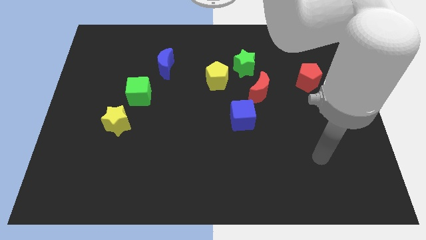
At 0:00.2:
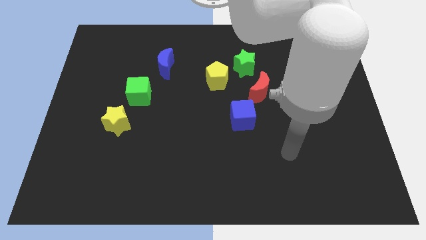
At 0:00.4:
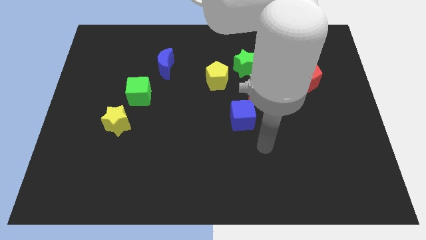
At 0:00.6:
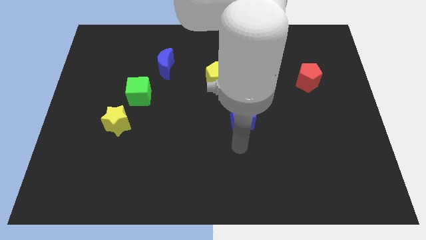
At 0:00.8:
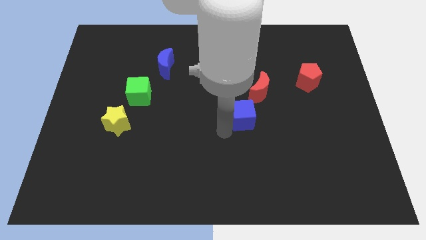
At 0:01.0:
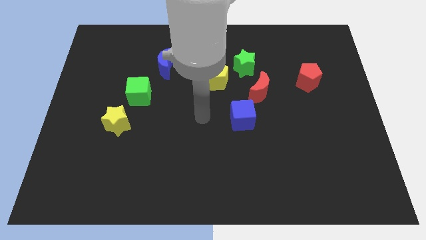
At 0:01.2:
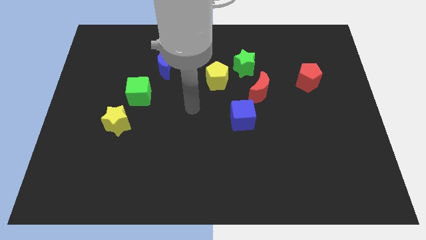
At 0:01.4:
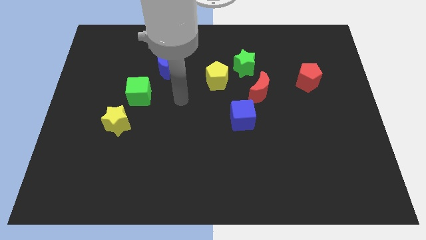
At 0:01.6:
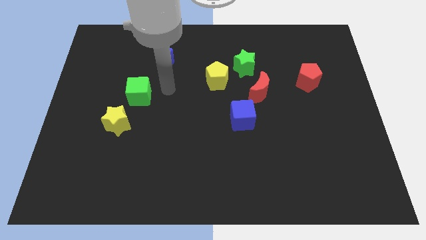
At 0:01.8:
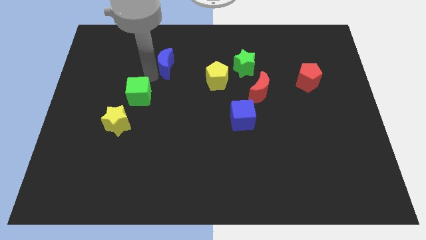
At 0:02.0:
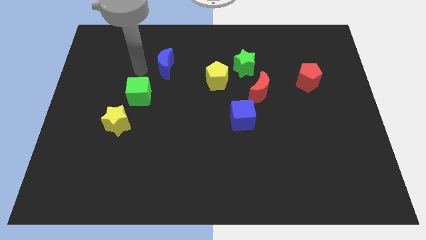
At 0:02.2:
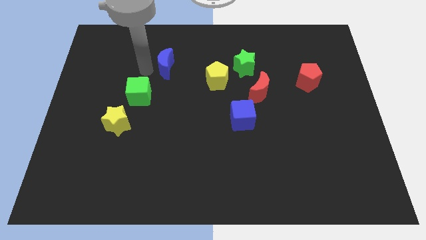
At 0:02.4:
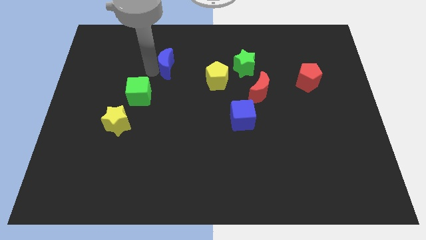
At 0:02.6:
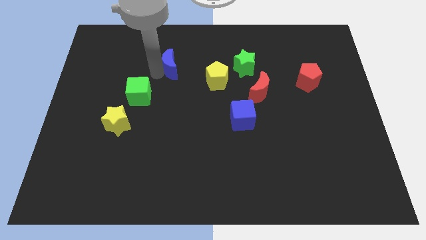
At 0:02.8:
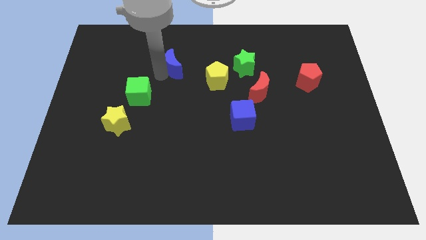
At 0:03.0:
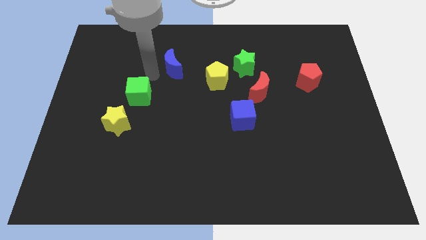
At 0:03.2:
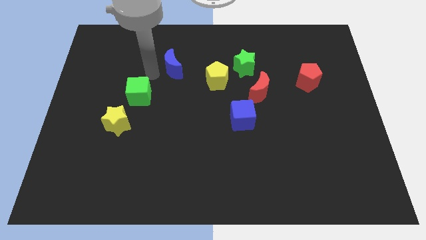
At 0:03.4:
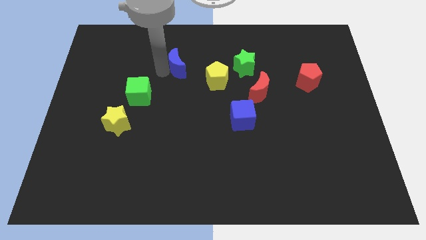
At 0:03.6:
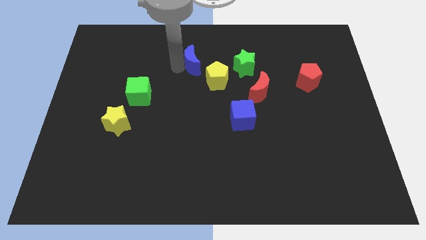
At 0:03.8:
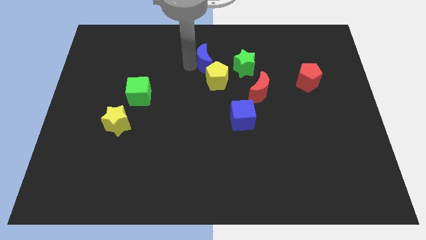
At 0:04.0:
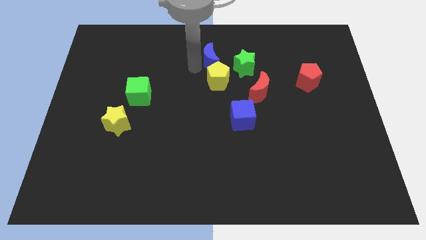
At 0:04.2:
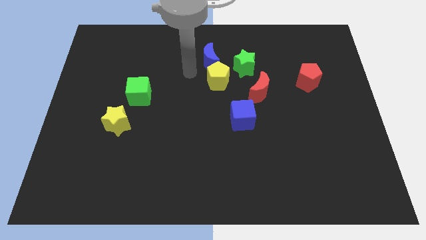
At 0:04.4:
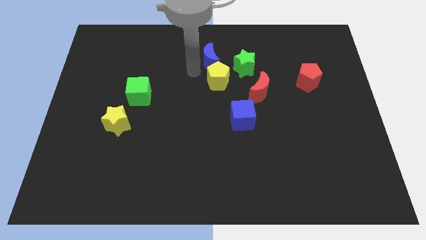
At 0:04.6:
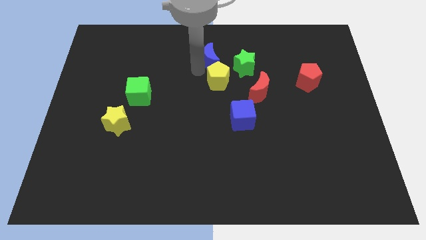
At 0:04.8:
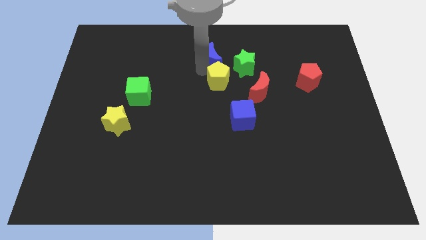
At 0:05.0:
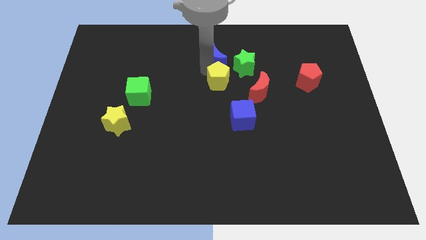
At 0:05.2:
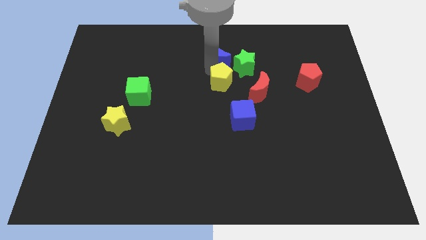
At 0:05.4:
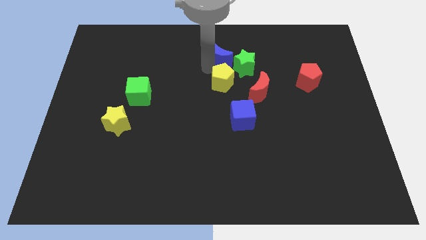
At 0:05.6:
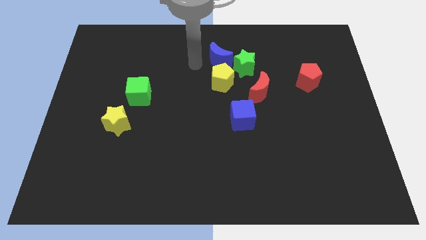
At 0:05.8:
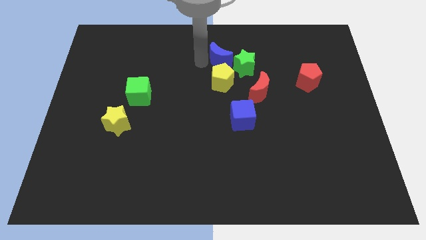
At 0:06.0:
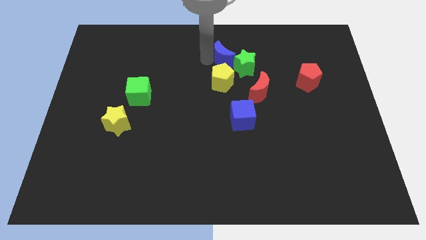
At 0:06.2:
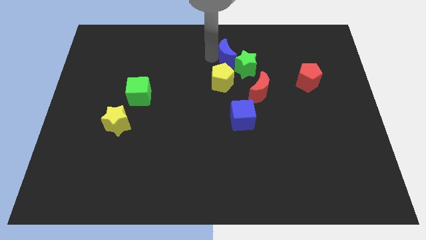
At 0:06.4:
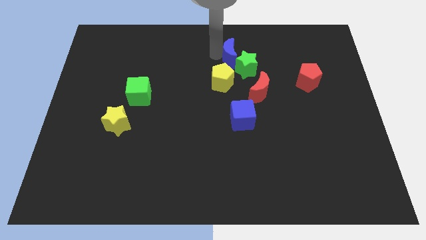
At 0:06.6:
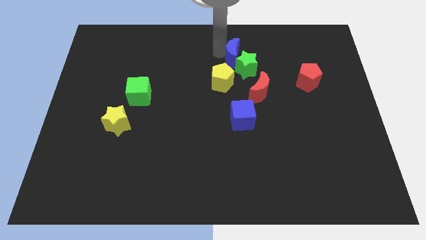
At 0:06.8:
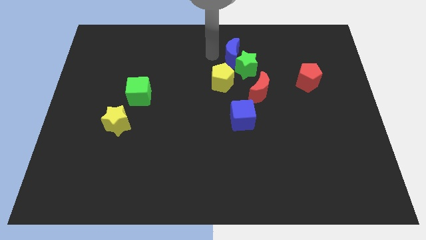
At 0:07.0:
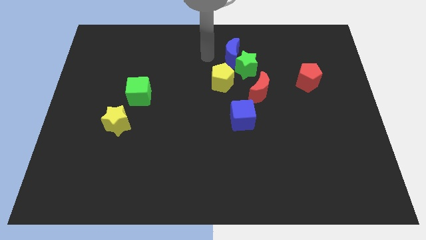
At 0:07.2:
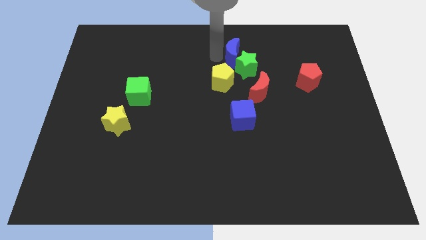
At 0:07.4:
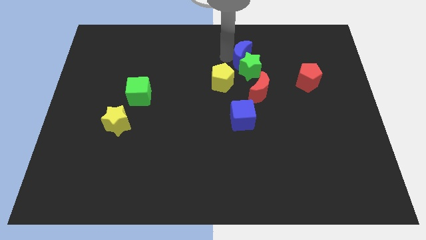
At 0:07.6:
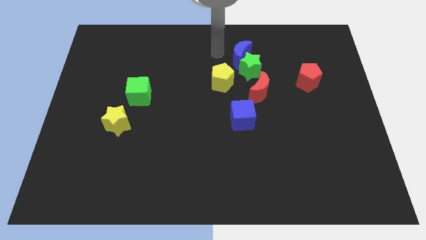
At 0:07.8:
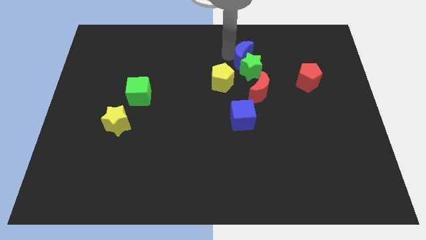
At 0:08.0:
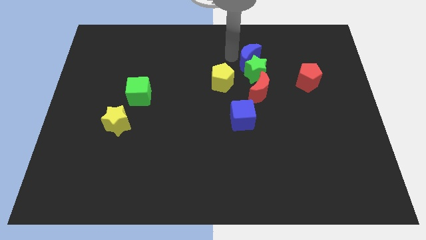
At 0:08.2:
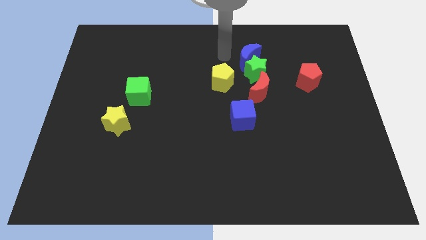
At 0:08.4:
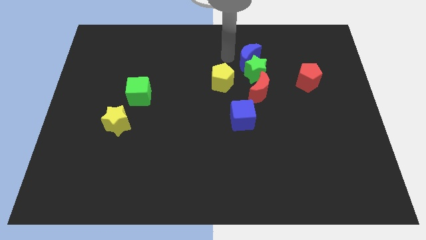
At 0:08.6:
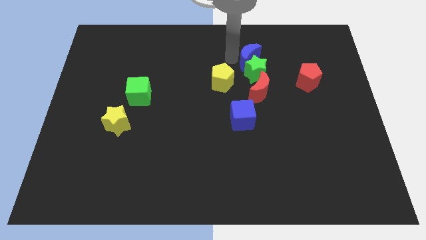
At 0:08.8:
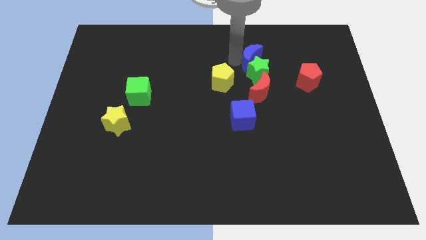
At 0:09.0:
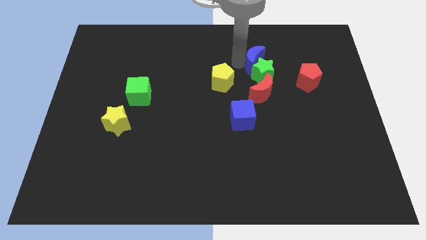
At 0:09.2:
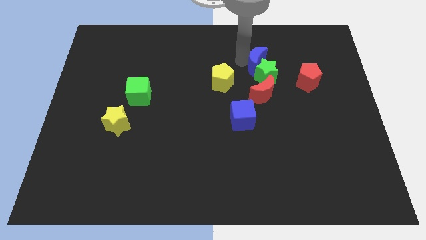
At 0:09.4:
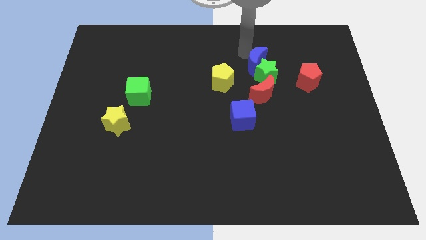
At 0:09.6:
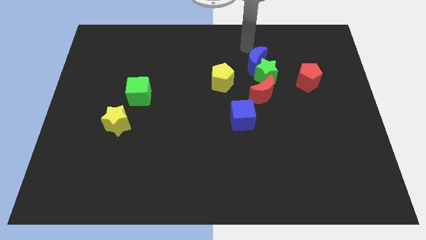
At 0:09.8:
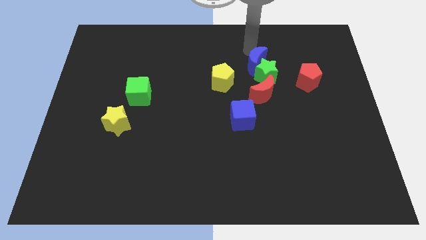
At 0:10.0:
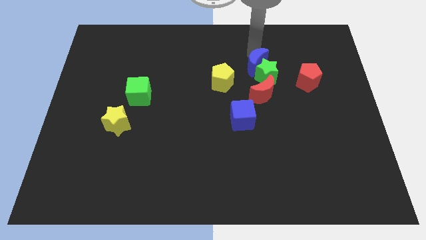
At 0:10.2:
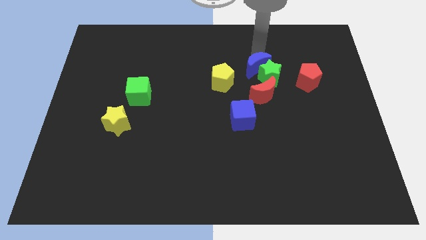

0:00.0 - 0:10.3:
move the blue moon just right of the yellow pentagon

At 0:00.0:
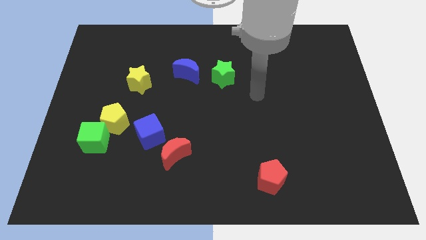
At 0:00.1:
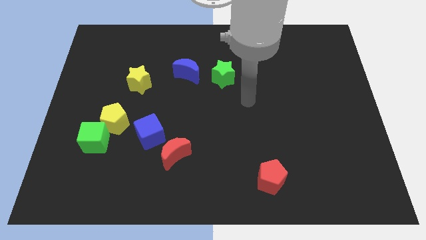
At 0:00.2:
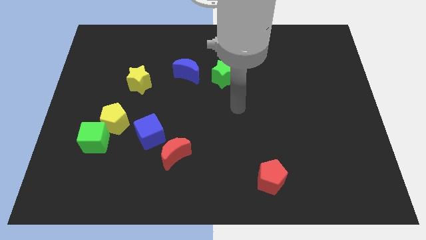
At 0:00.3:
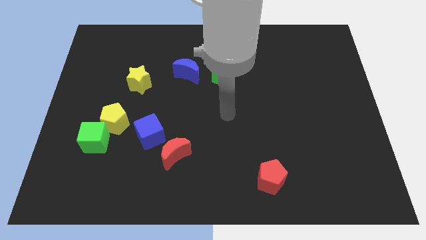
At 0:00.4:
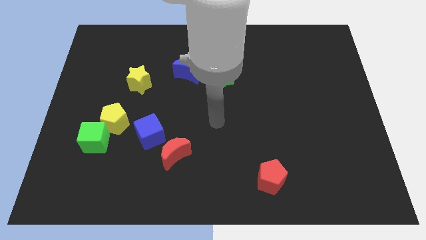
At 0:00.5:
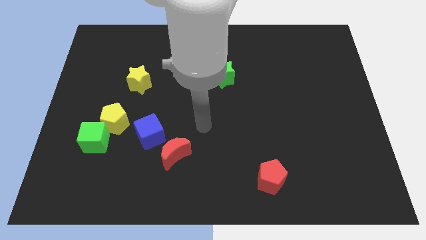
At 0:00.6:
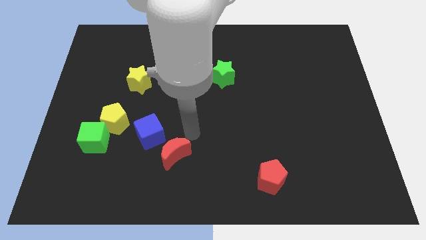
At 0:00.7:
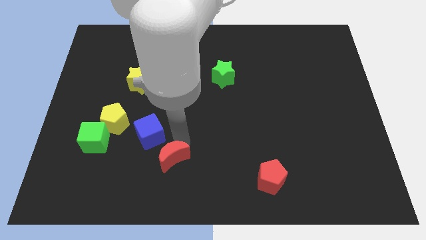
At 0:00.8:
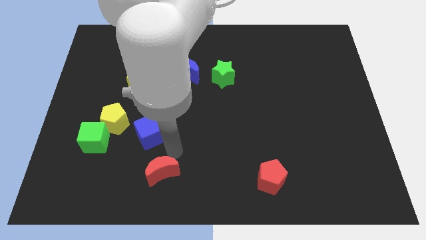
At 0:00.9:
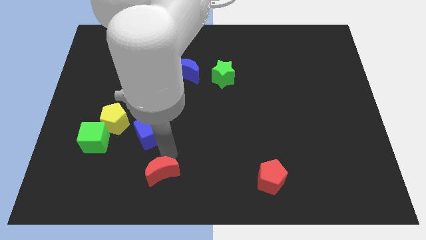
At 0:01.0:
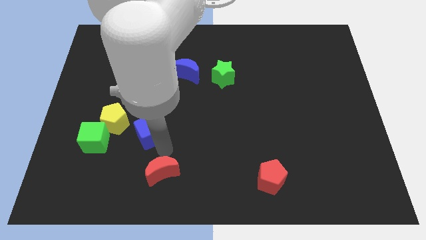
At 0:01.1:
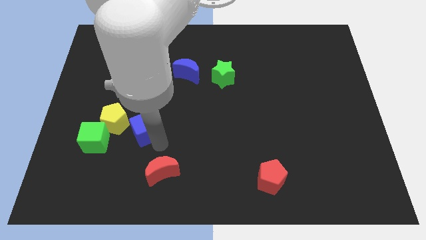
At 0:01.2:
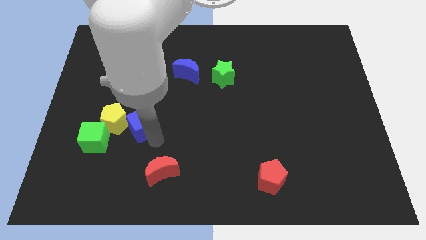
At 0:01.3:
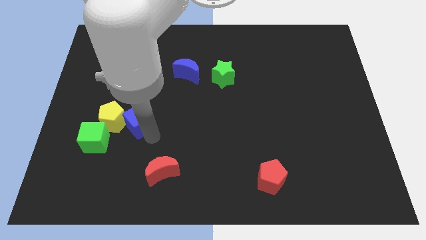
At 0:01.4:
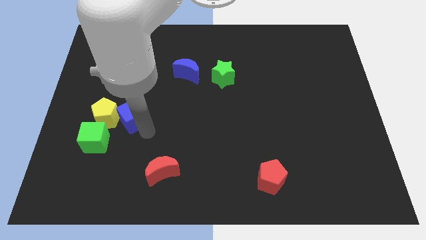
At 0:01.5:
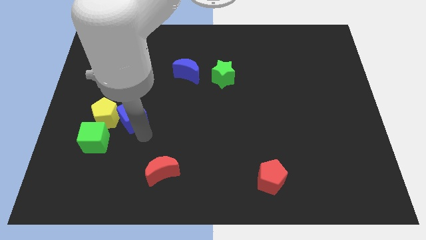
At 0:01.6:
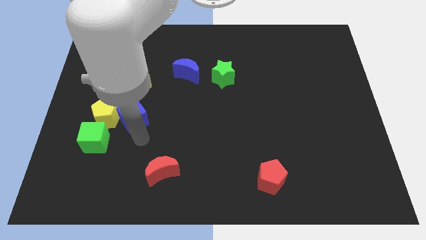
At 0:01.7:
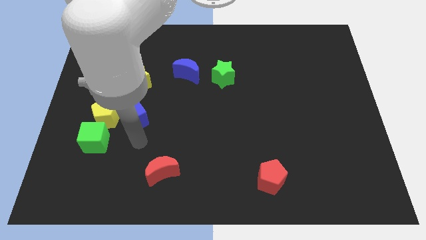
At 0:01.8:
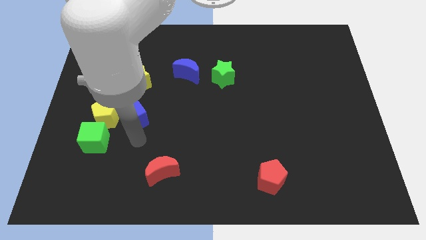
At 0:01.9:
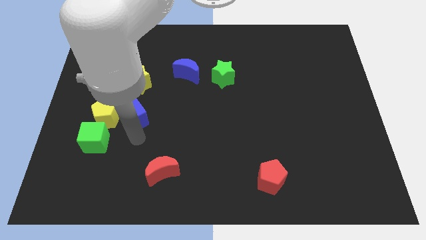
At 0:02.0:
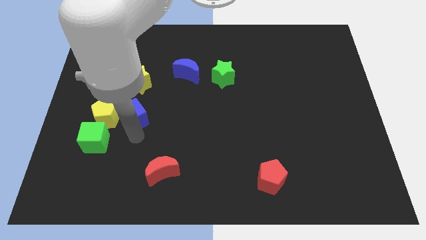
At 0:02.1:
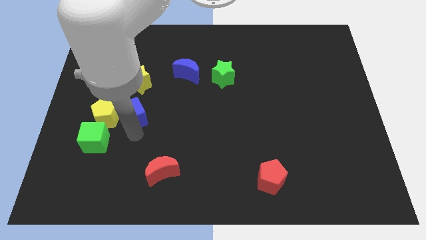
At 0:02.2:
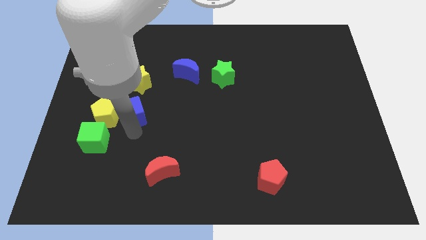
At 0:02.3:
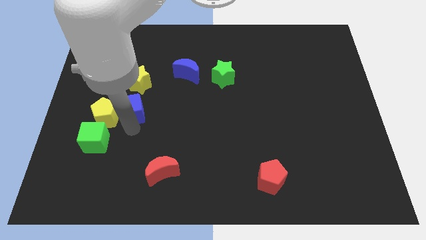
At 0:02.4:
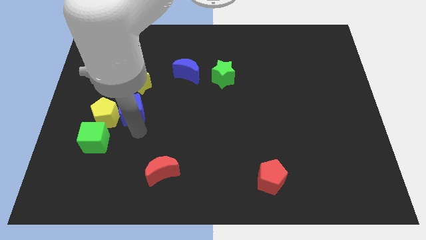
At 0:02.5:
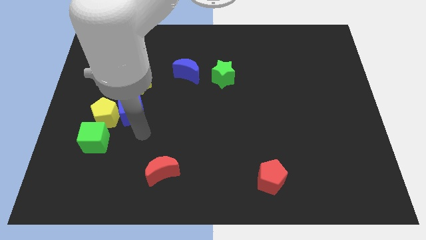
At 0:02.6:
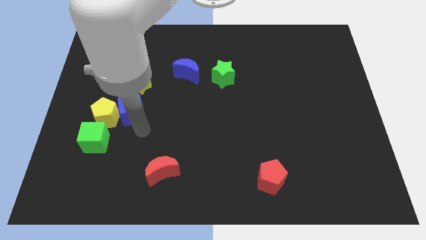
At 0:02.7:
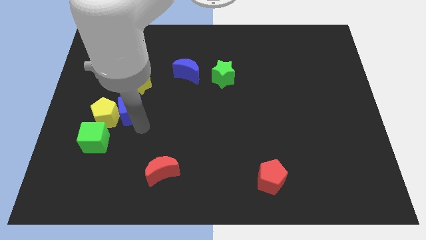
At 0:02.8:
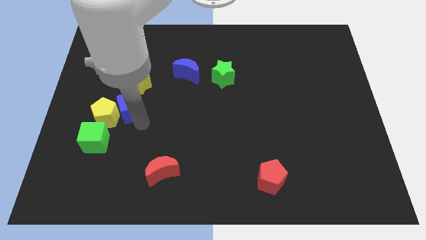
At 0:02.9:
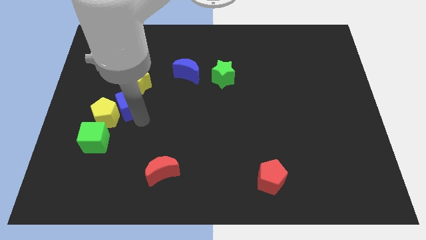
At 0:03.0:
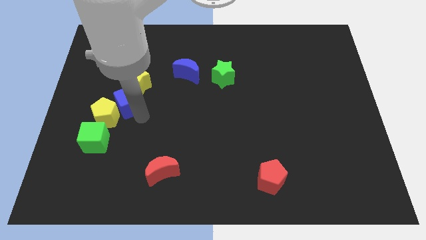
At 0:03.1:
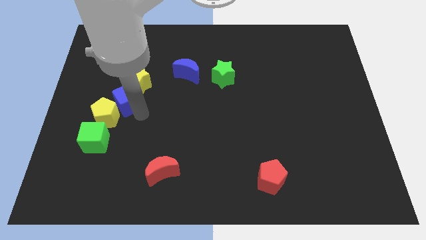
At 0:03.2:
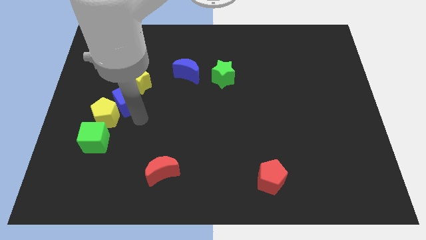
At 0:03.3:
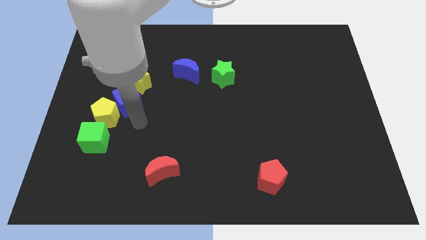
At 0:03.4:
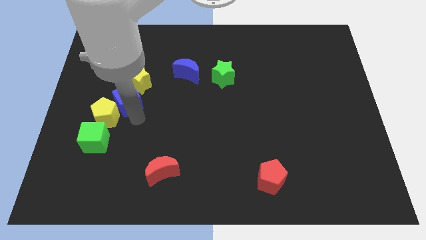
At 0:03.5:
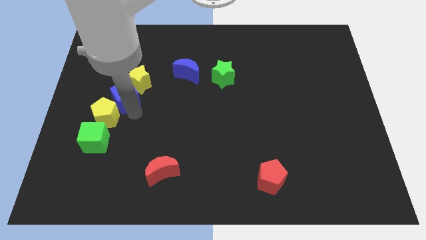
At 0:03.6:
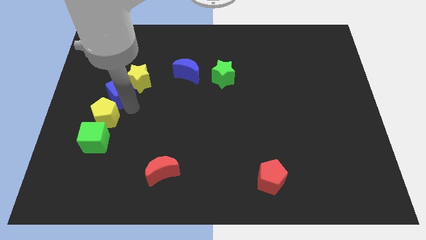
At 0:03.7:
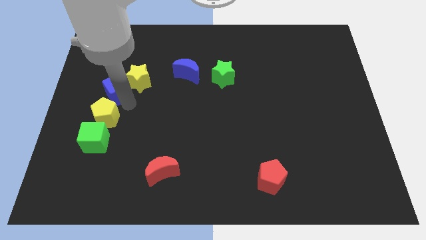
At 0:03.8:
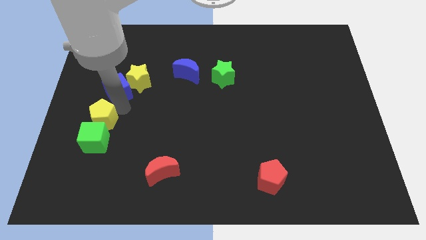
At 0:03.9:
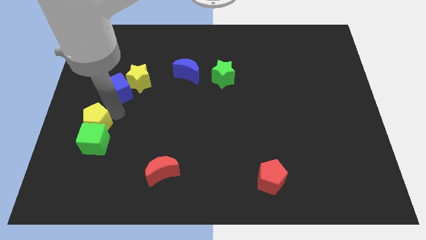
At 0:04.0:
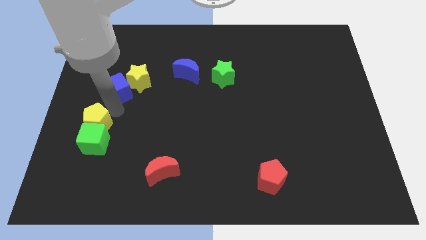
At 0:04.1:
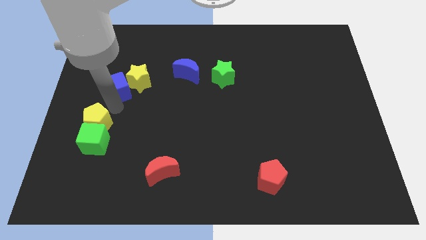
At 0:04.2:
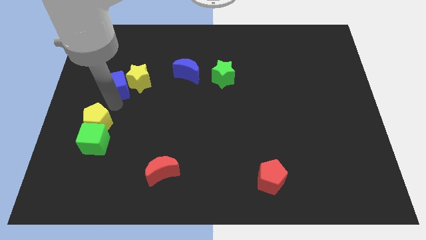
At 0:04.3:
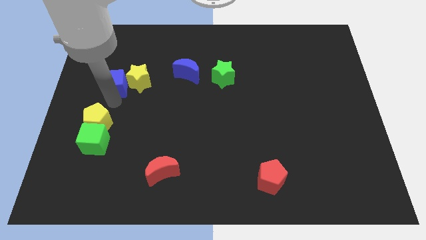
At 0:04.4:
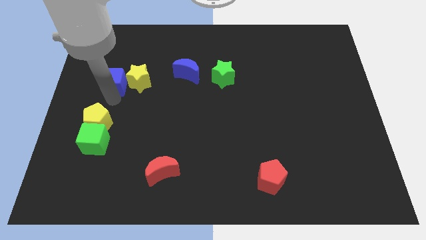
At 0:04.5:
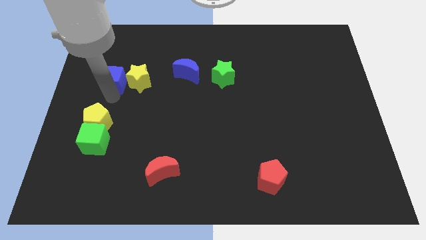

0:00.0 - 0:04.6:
slide the blue cube to the top left of the yellow star
